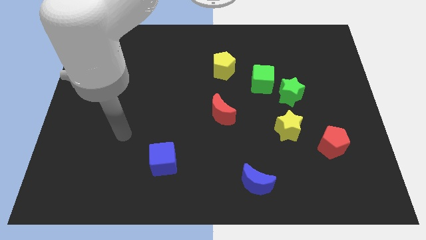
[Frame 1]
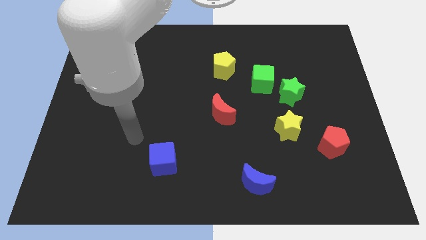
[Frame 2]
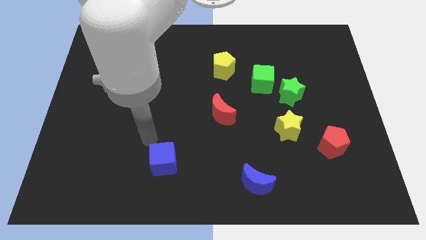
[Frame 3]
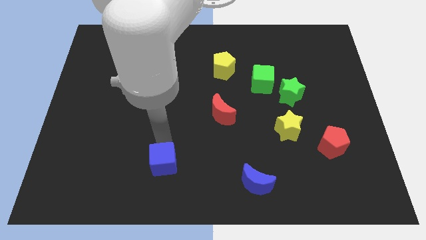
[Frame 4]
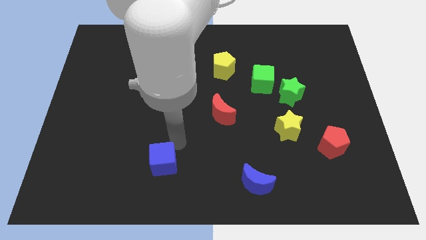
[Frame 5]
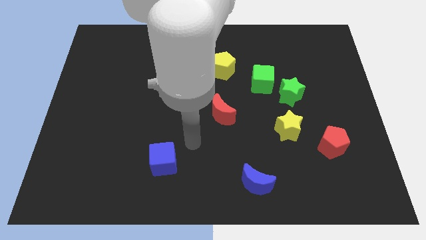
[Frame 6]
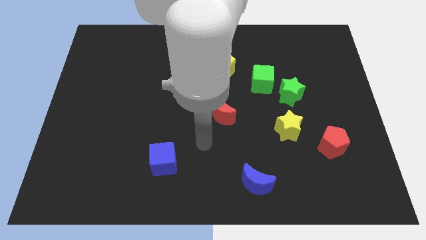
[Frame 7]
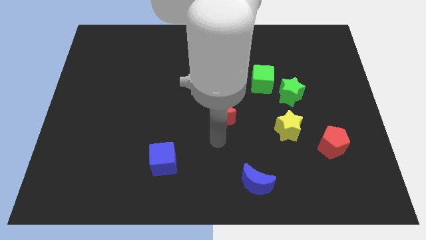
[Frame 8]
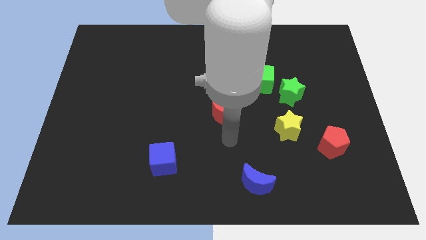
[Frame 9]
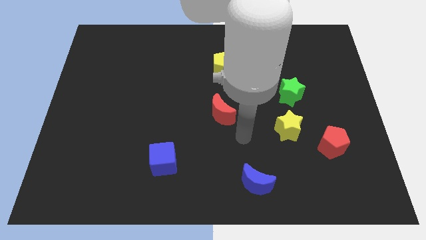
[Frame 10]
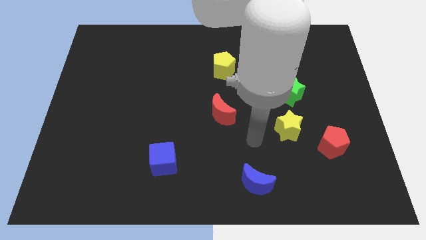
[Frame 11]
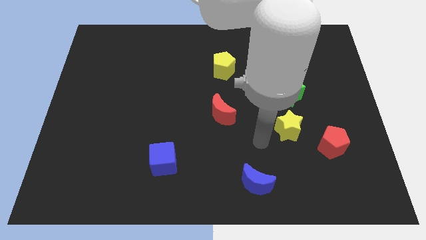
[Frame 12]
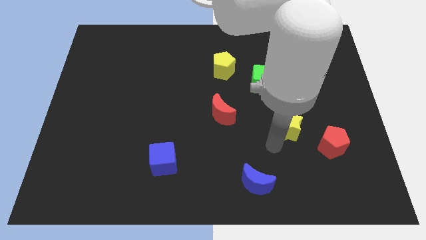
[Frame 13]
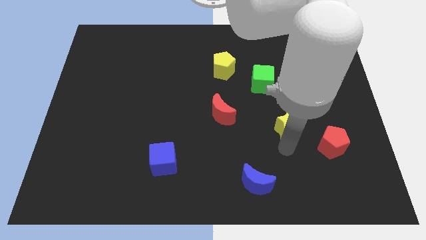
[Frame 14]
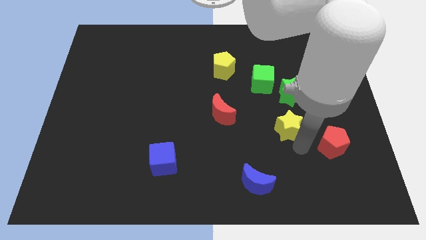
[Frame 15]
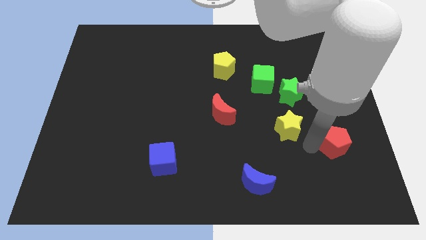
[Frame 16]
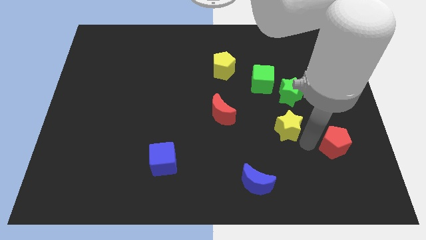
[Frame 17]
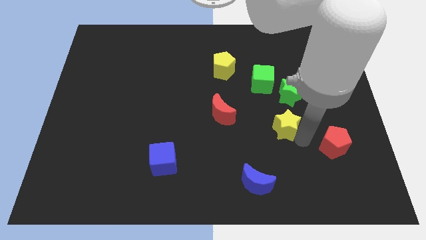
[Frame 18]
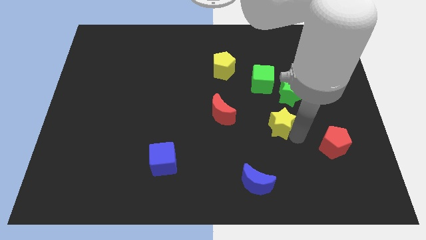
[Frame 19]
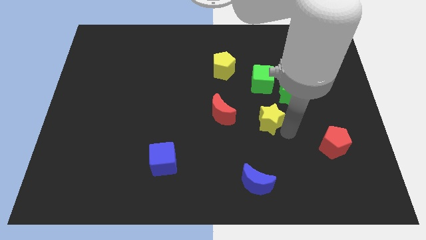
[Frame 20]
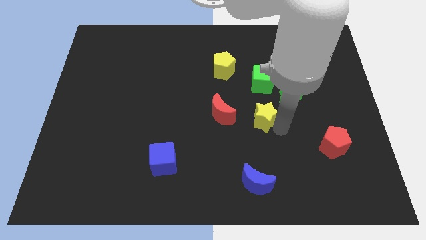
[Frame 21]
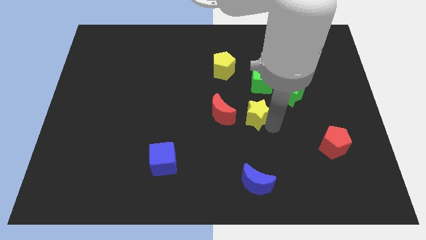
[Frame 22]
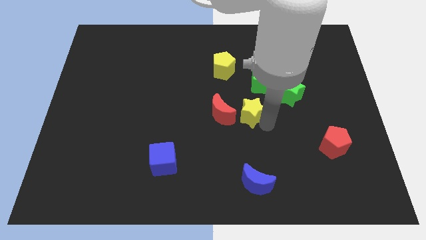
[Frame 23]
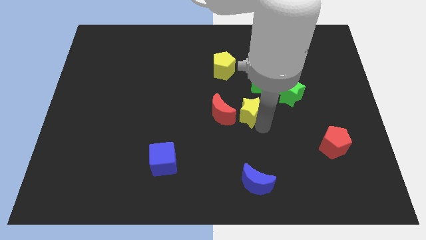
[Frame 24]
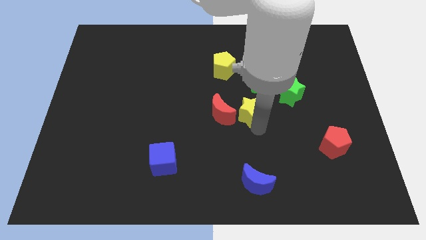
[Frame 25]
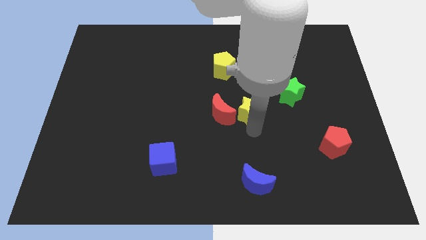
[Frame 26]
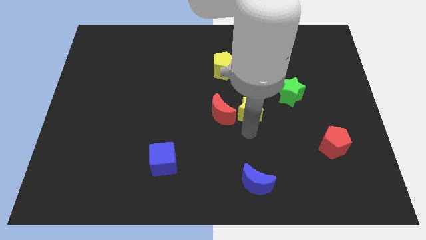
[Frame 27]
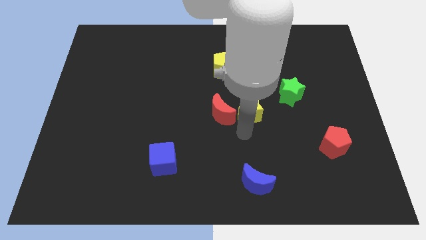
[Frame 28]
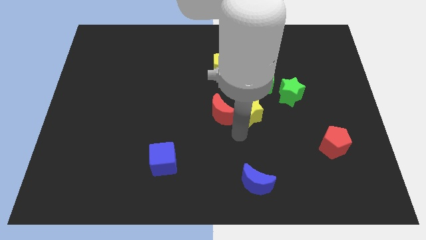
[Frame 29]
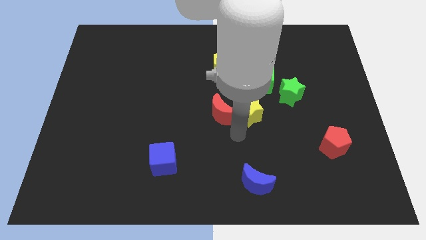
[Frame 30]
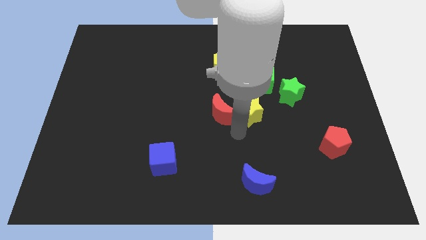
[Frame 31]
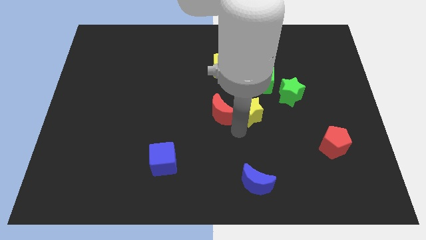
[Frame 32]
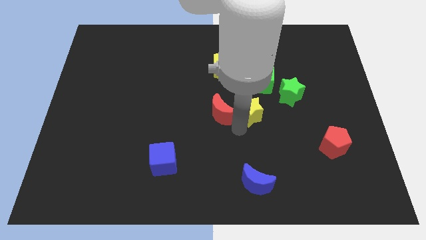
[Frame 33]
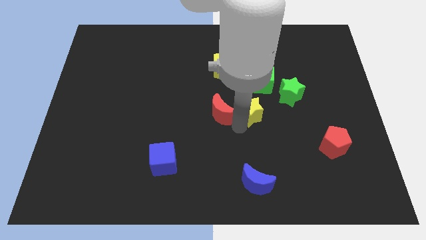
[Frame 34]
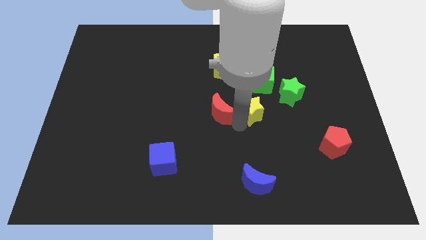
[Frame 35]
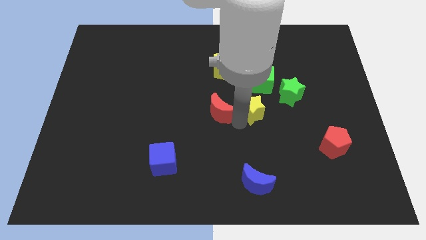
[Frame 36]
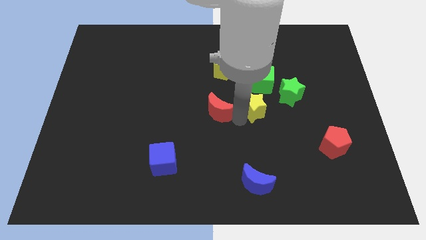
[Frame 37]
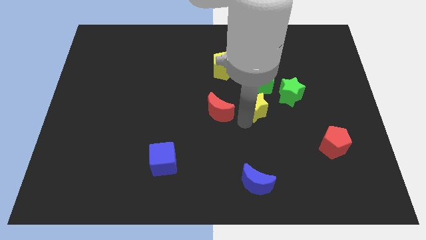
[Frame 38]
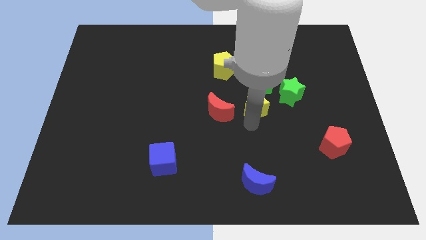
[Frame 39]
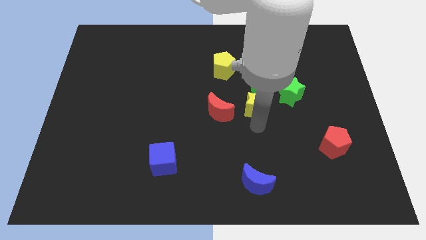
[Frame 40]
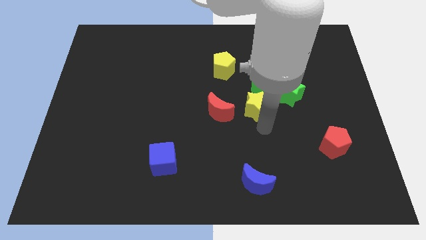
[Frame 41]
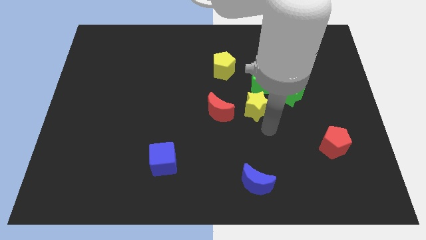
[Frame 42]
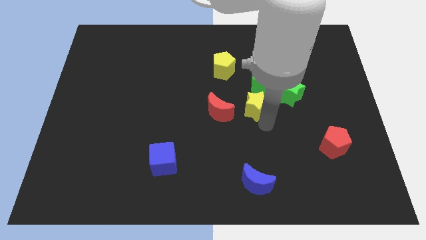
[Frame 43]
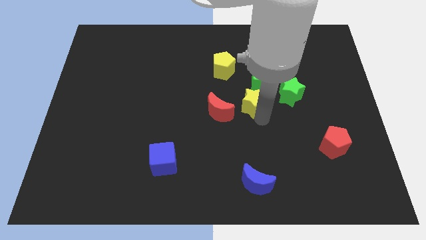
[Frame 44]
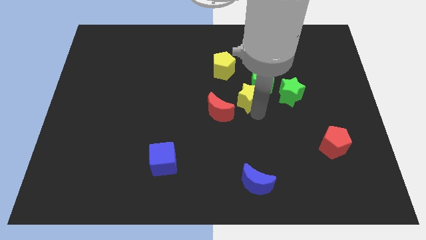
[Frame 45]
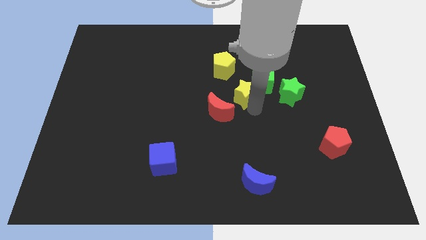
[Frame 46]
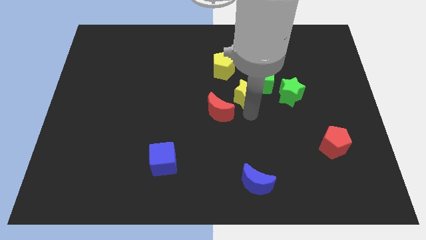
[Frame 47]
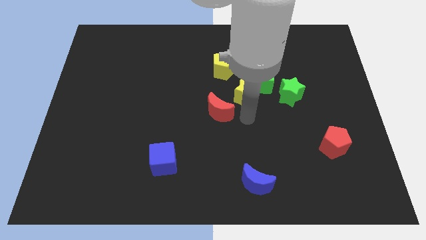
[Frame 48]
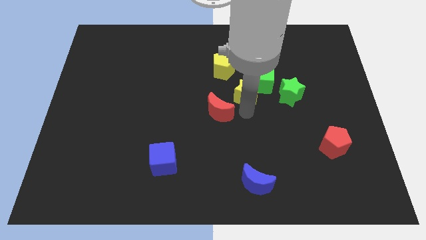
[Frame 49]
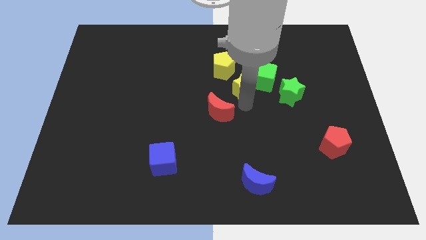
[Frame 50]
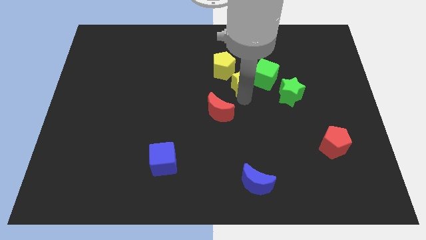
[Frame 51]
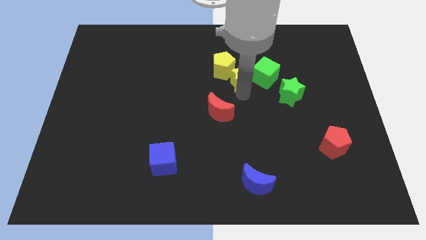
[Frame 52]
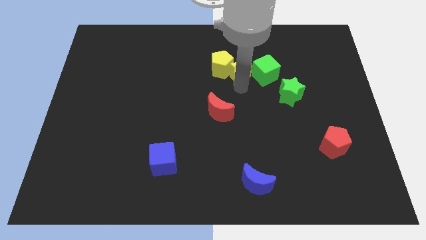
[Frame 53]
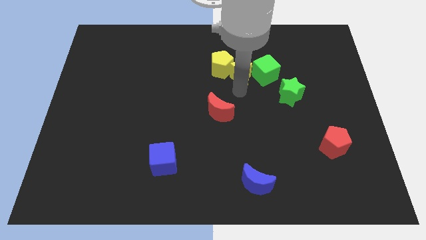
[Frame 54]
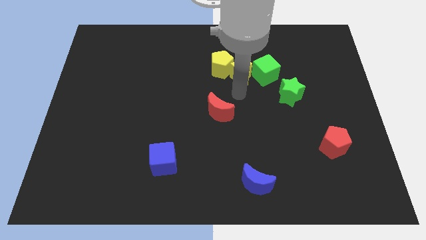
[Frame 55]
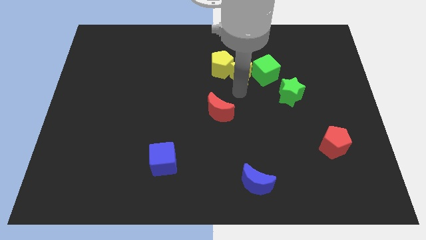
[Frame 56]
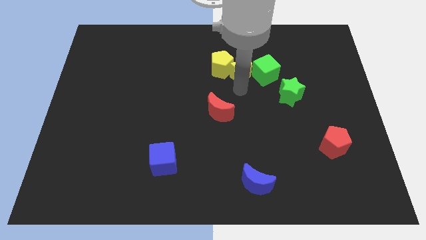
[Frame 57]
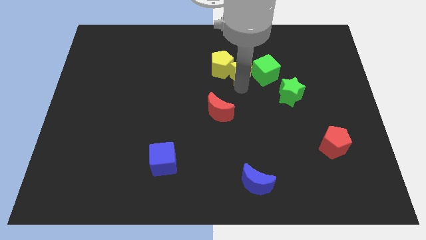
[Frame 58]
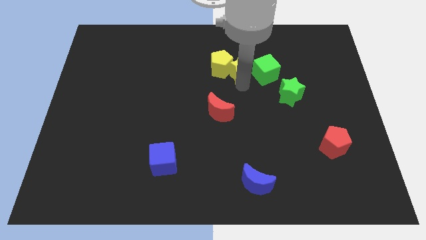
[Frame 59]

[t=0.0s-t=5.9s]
push the yellow star diagonally up and to the right of the yellow pentagon
